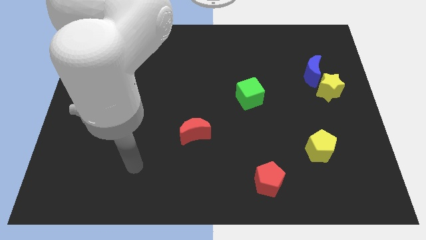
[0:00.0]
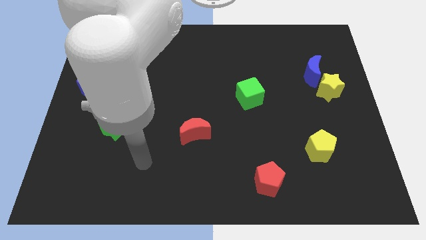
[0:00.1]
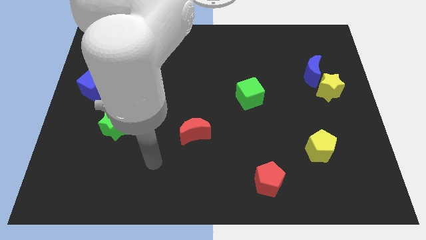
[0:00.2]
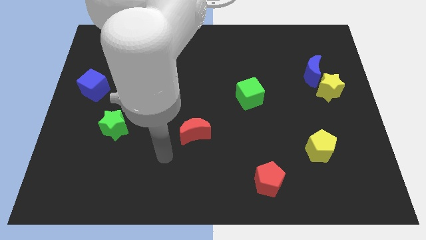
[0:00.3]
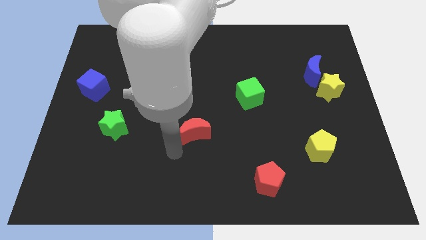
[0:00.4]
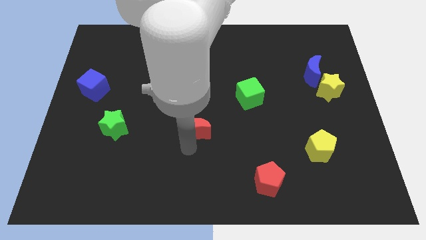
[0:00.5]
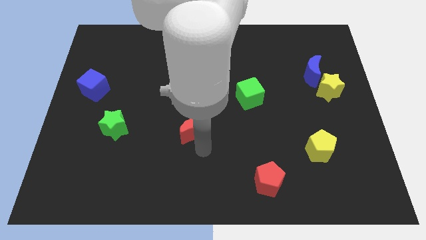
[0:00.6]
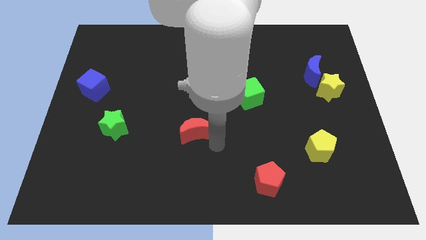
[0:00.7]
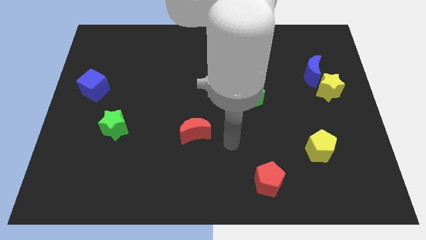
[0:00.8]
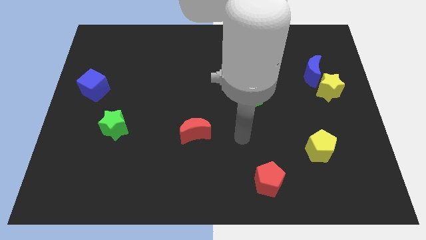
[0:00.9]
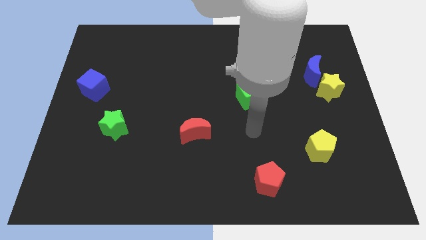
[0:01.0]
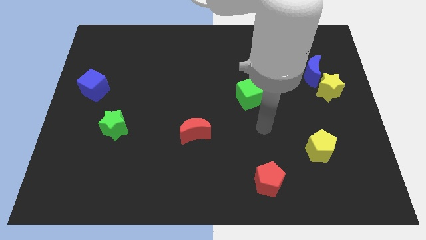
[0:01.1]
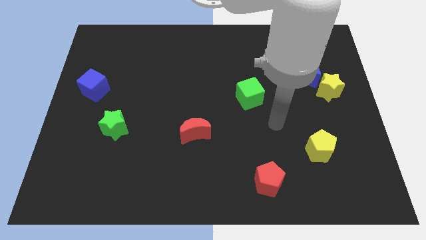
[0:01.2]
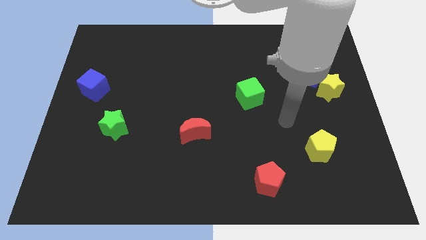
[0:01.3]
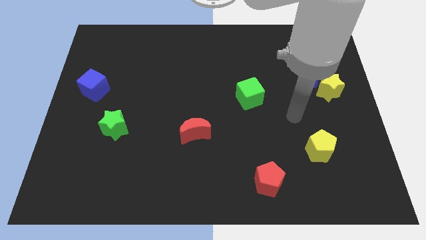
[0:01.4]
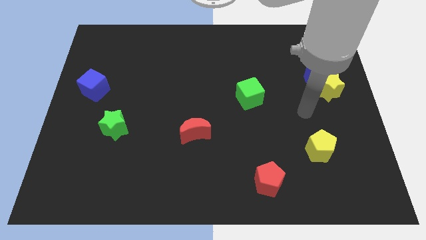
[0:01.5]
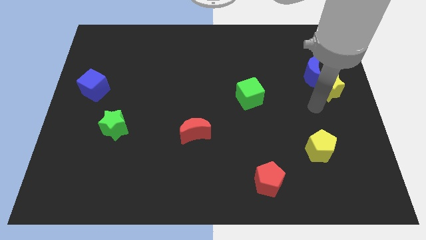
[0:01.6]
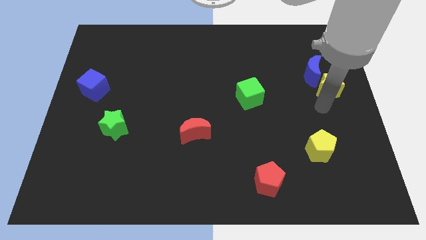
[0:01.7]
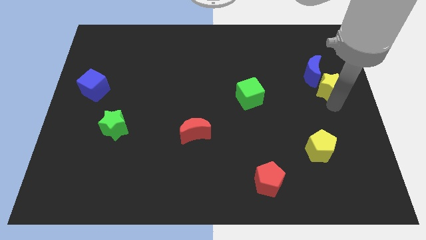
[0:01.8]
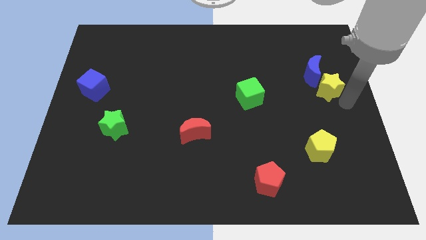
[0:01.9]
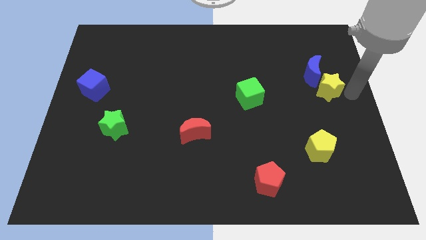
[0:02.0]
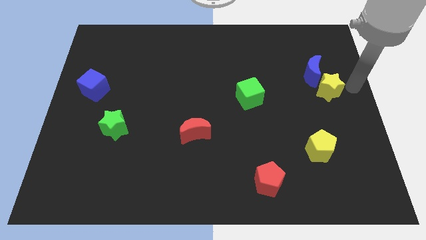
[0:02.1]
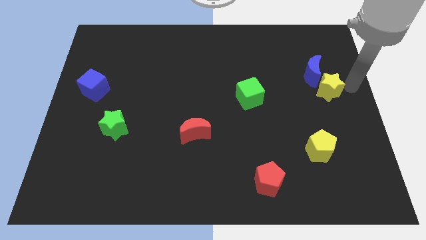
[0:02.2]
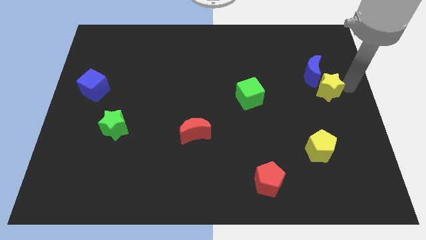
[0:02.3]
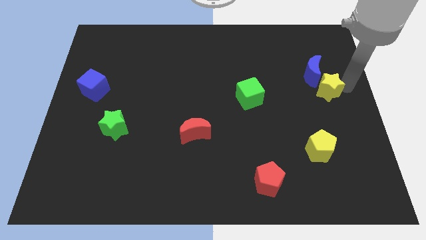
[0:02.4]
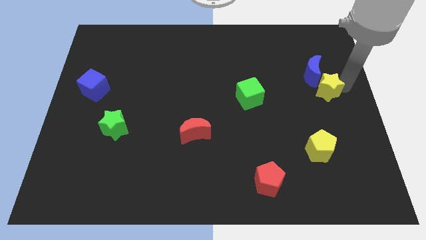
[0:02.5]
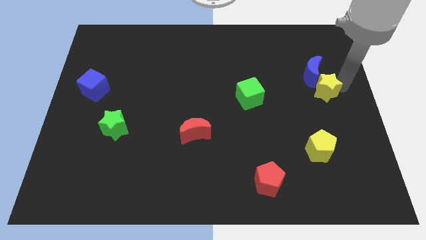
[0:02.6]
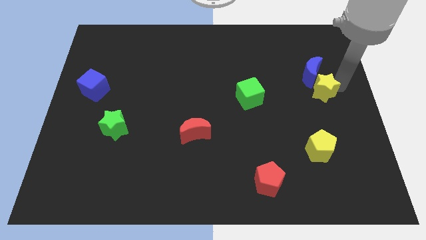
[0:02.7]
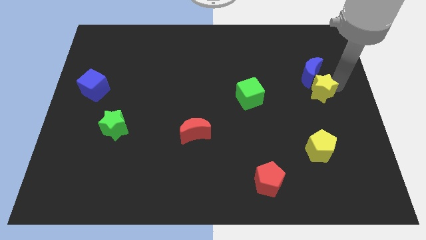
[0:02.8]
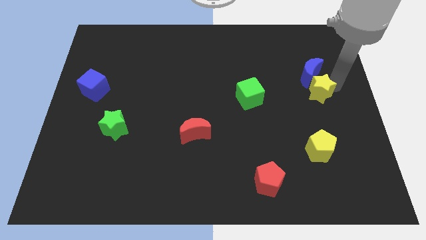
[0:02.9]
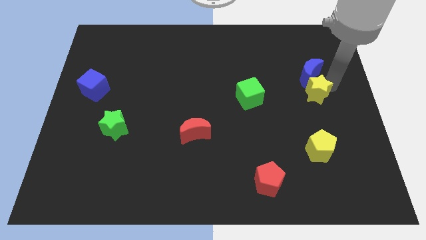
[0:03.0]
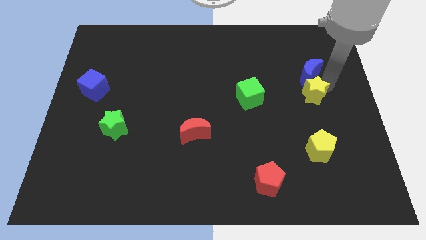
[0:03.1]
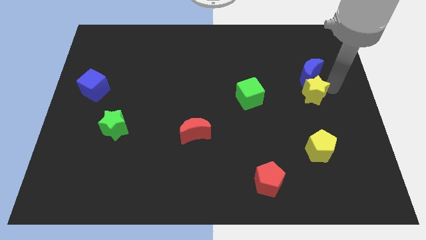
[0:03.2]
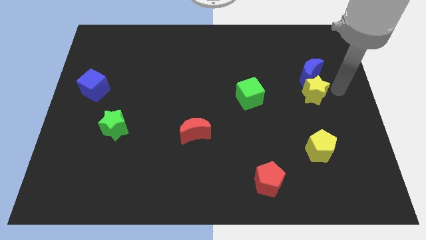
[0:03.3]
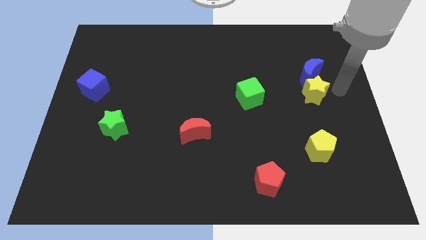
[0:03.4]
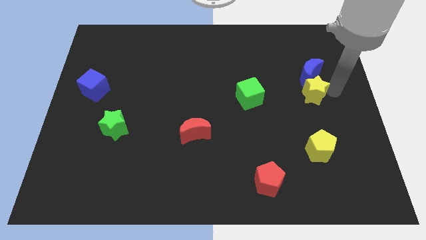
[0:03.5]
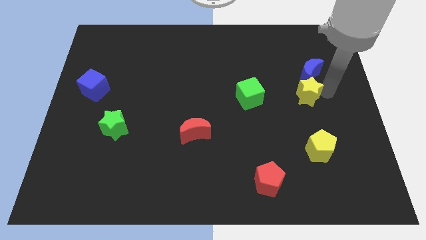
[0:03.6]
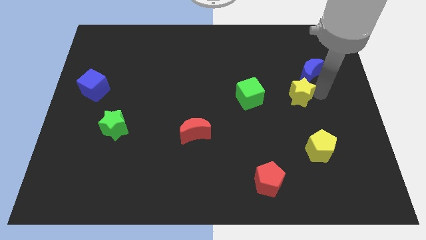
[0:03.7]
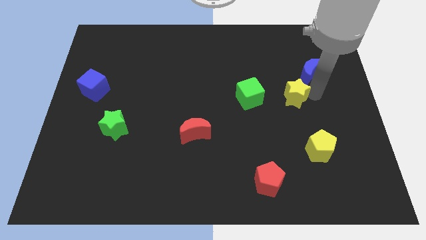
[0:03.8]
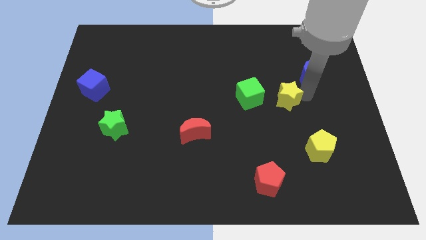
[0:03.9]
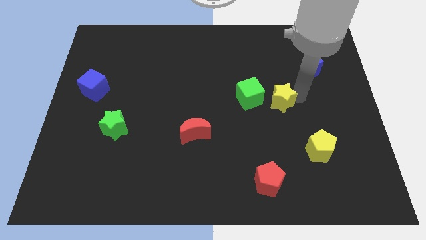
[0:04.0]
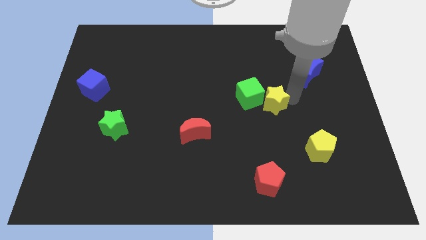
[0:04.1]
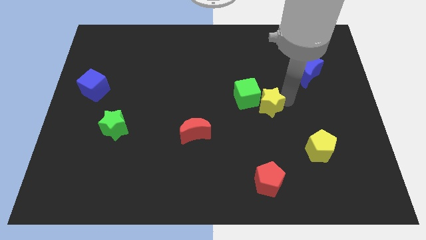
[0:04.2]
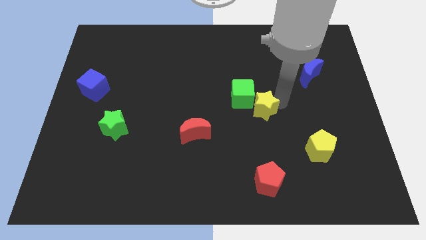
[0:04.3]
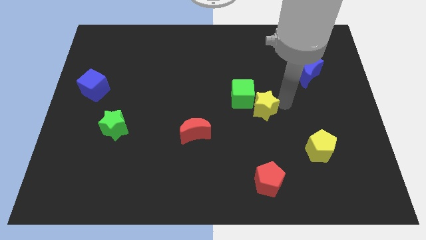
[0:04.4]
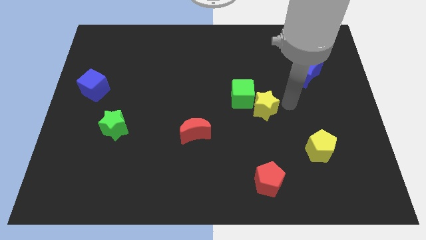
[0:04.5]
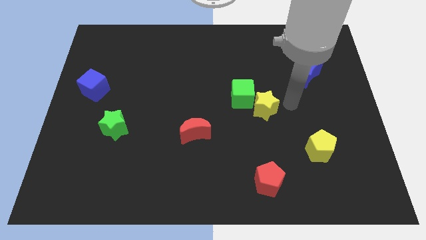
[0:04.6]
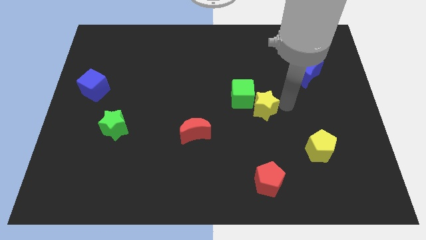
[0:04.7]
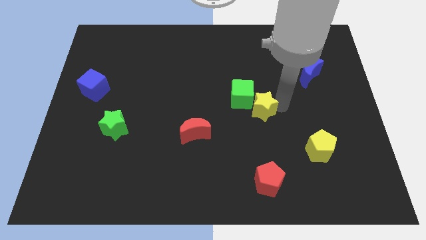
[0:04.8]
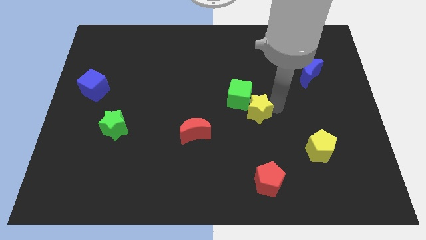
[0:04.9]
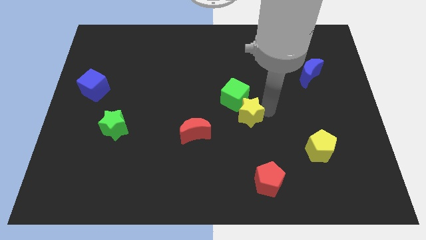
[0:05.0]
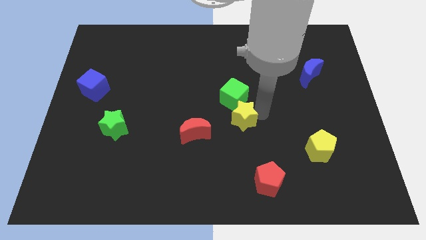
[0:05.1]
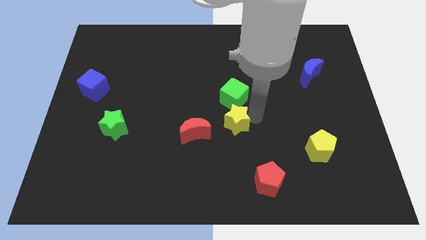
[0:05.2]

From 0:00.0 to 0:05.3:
put the yellow star to the top right of the red moon

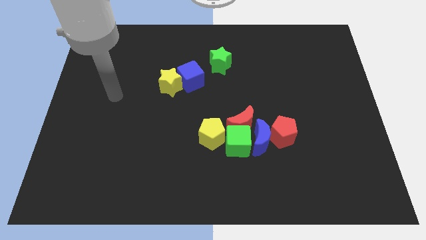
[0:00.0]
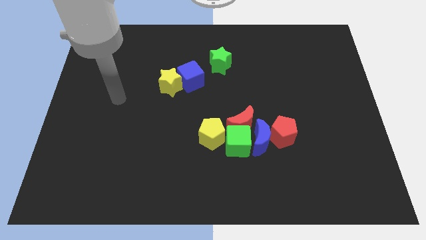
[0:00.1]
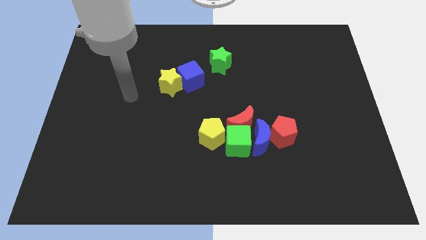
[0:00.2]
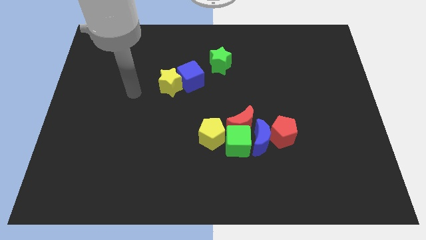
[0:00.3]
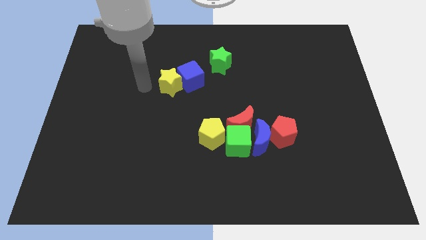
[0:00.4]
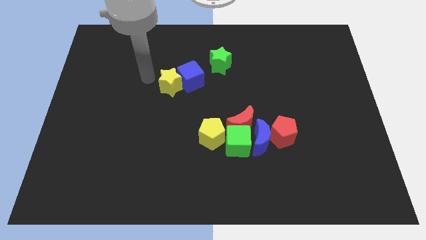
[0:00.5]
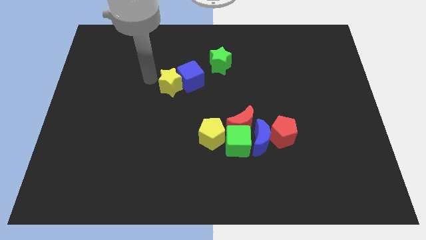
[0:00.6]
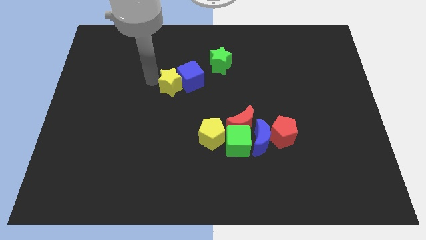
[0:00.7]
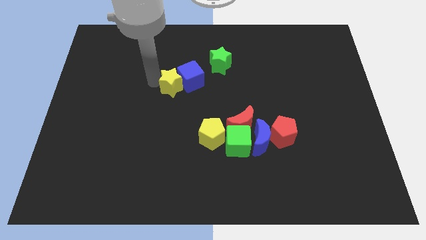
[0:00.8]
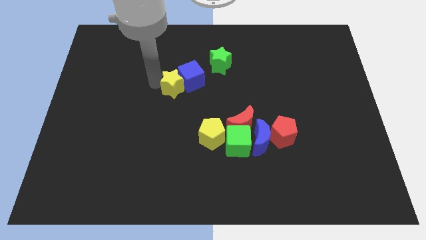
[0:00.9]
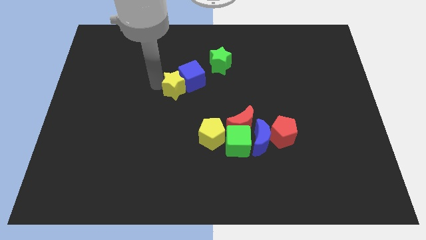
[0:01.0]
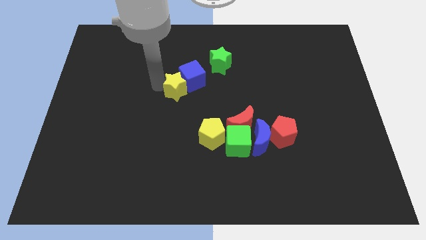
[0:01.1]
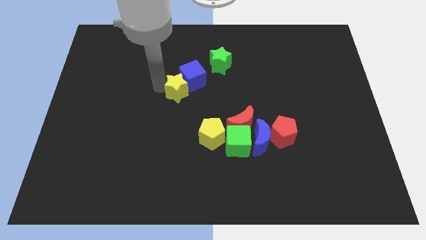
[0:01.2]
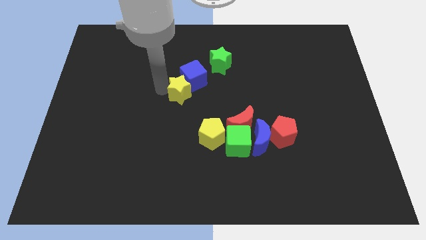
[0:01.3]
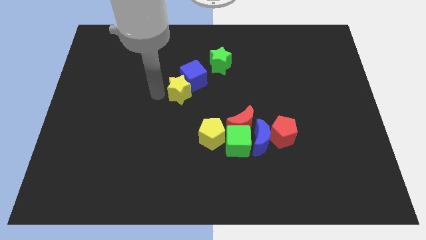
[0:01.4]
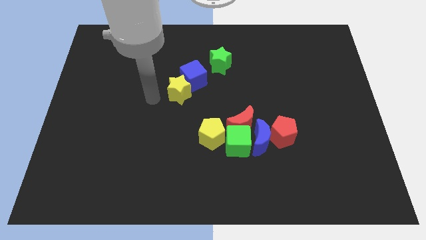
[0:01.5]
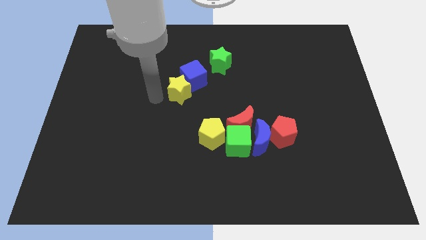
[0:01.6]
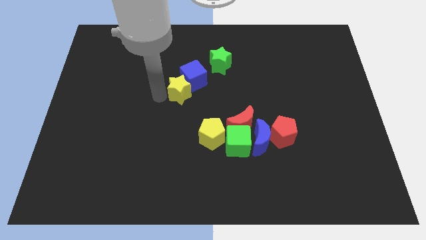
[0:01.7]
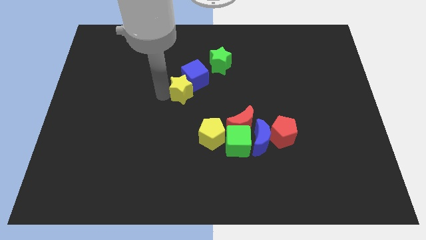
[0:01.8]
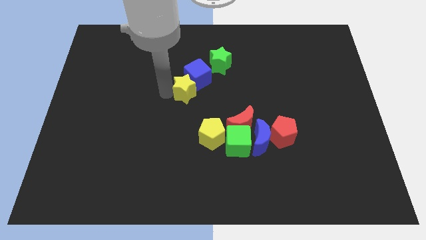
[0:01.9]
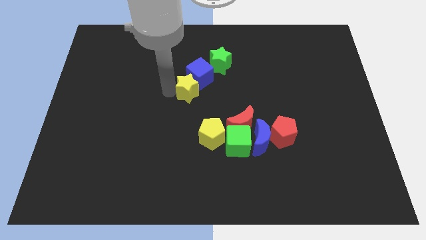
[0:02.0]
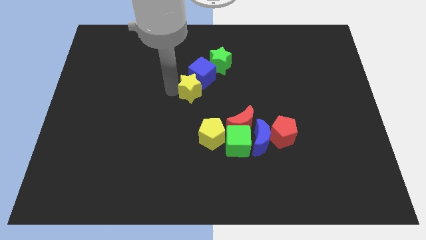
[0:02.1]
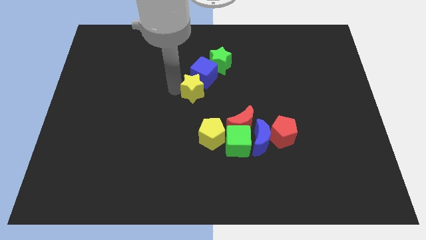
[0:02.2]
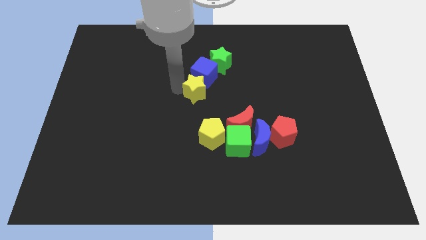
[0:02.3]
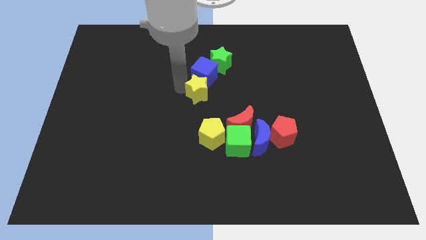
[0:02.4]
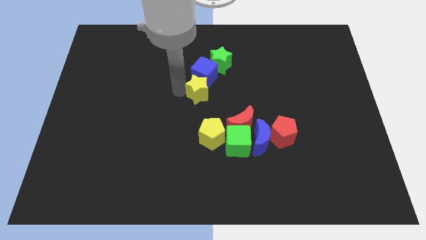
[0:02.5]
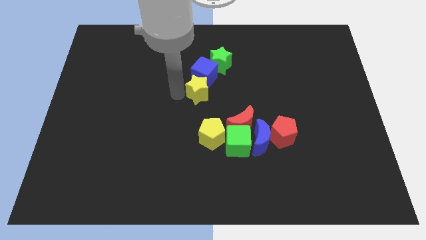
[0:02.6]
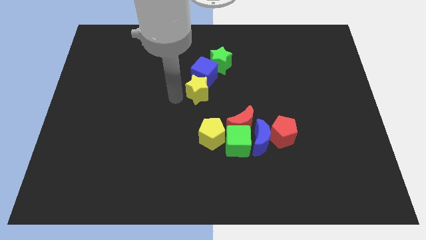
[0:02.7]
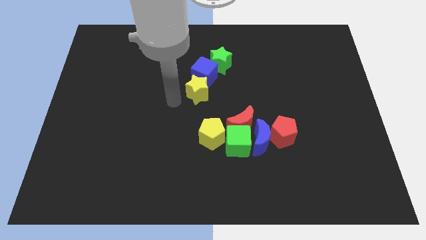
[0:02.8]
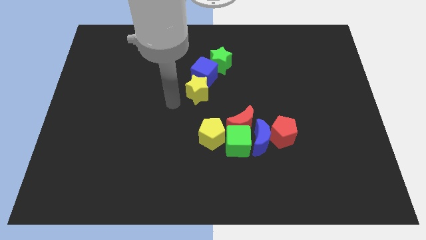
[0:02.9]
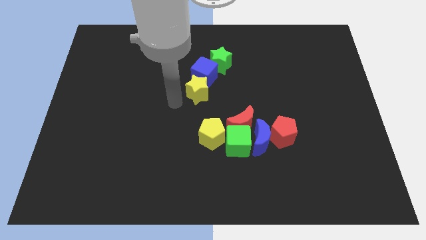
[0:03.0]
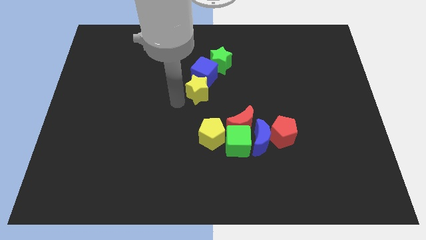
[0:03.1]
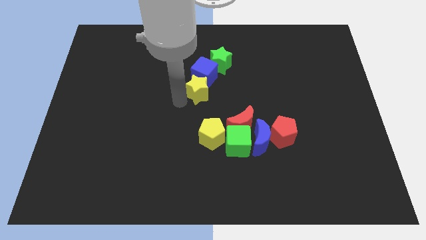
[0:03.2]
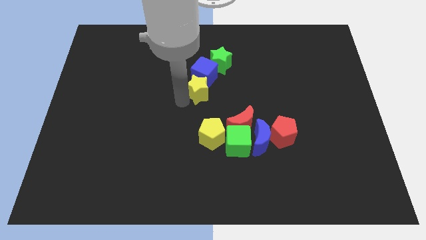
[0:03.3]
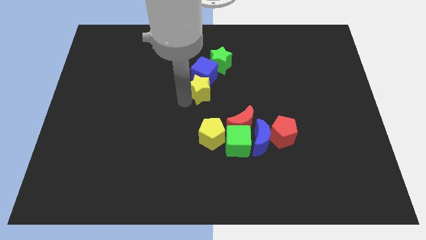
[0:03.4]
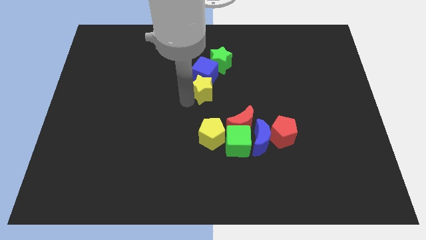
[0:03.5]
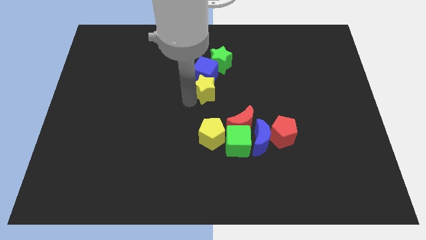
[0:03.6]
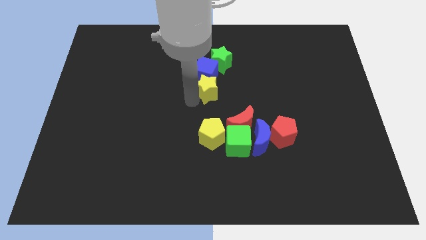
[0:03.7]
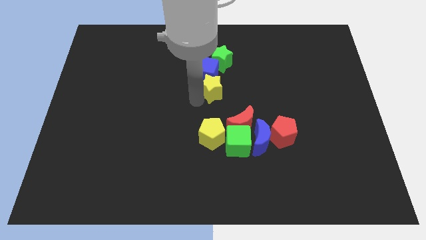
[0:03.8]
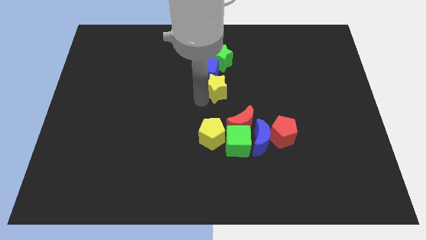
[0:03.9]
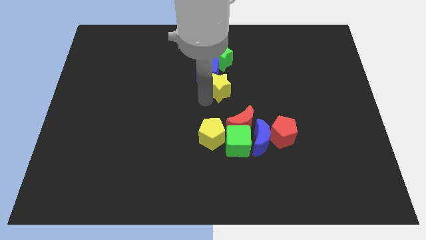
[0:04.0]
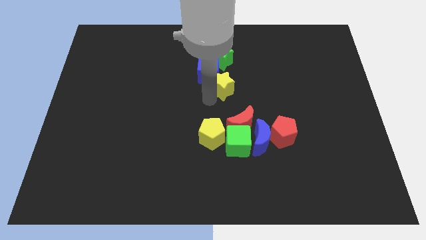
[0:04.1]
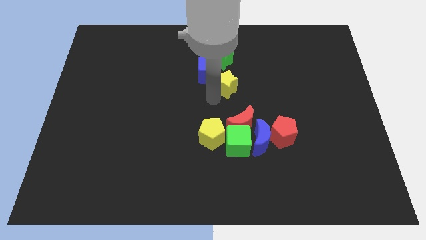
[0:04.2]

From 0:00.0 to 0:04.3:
put the yellow star just right of the blue cube
